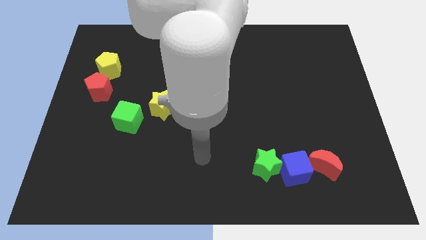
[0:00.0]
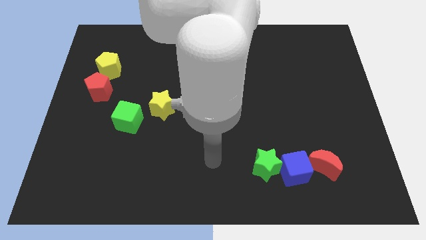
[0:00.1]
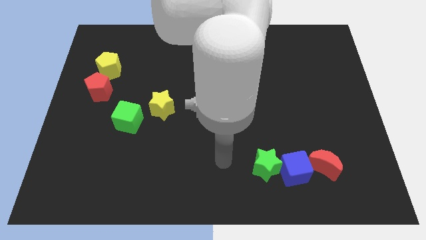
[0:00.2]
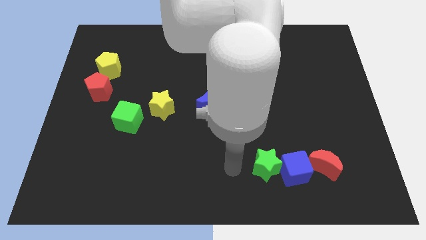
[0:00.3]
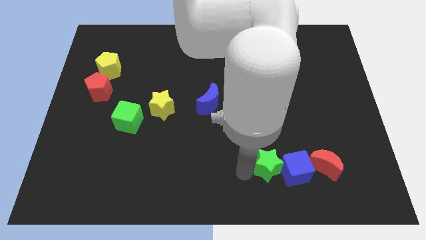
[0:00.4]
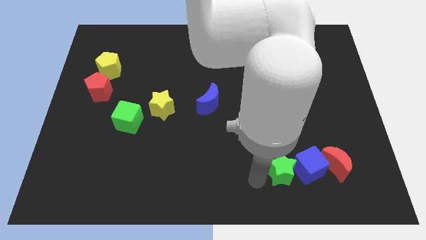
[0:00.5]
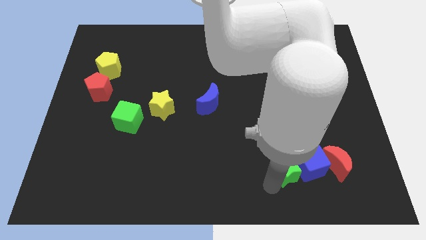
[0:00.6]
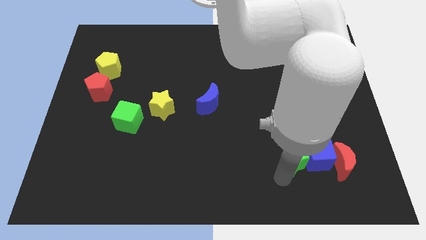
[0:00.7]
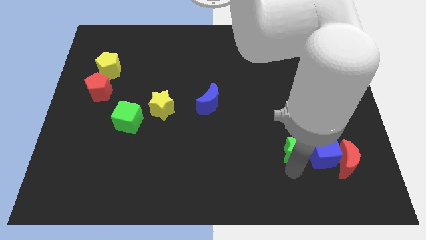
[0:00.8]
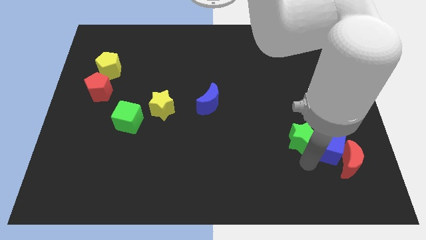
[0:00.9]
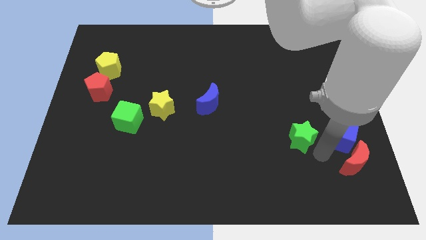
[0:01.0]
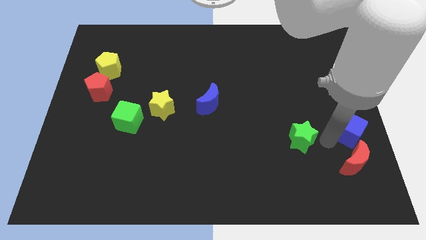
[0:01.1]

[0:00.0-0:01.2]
move the green star away from the blue cube

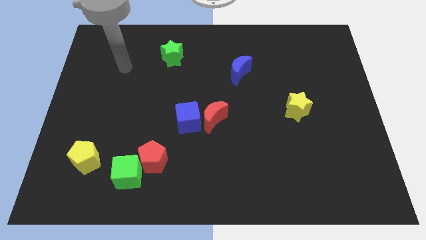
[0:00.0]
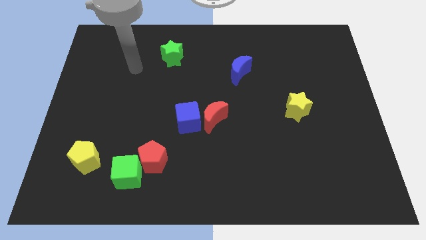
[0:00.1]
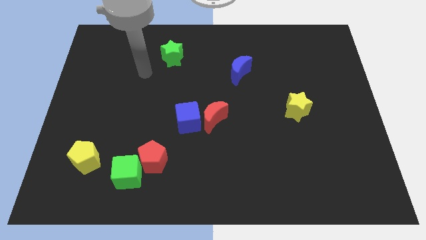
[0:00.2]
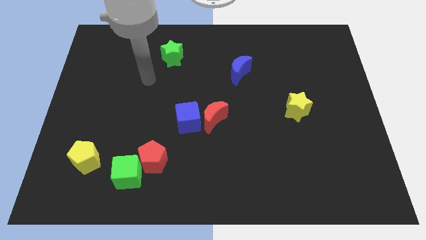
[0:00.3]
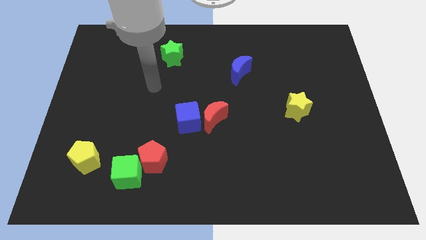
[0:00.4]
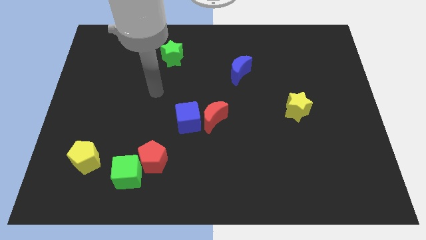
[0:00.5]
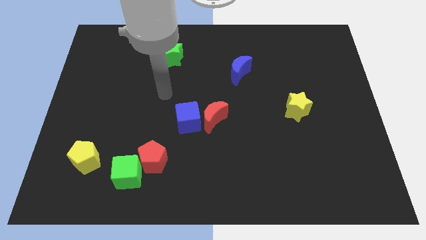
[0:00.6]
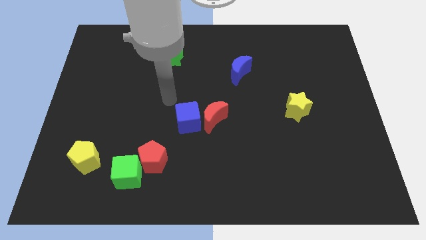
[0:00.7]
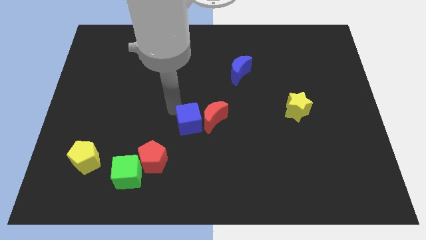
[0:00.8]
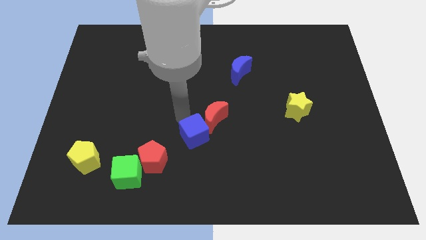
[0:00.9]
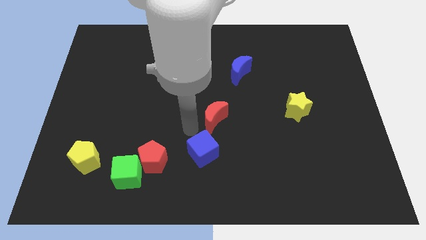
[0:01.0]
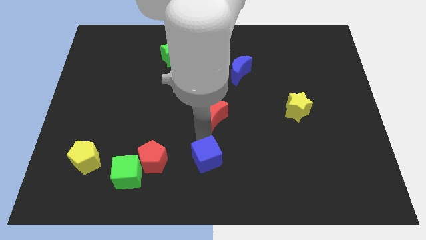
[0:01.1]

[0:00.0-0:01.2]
separate the red moon from the blue cube

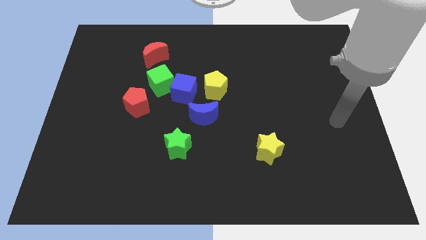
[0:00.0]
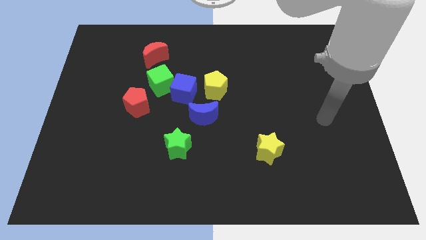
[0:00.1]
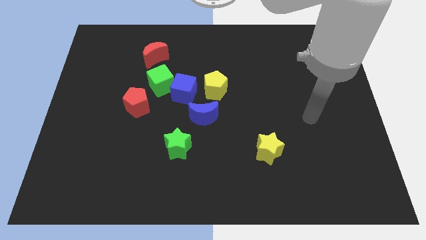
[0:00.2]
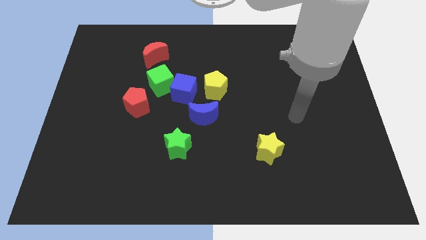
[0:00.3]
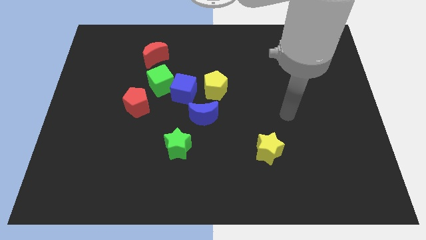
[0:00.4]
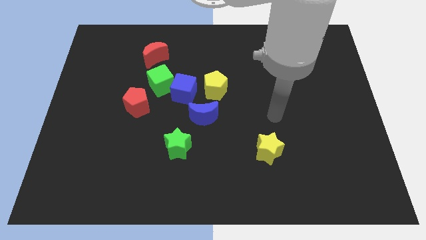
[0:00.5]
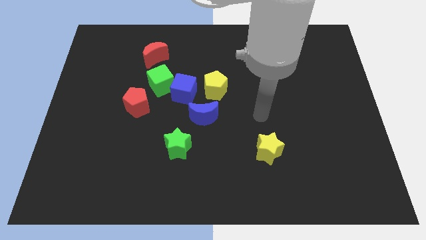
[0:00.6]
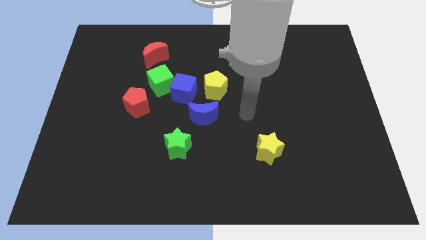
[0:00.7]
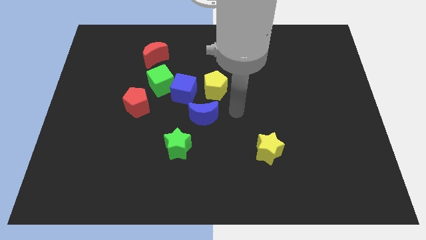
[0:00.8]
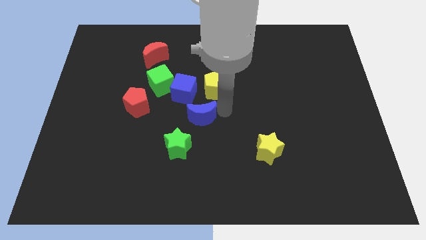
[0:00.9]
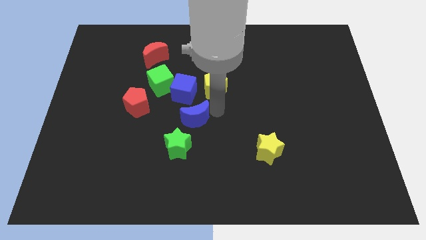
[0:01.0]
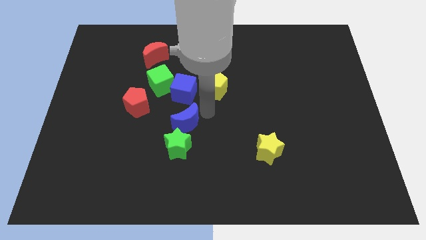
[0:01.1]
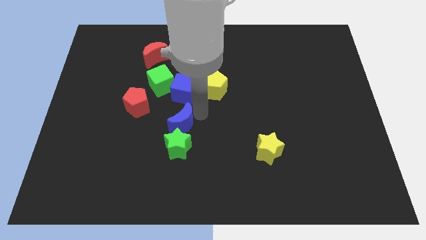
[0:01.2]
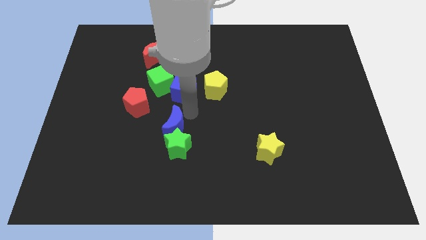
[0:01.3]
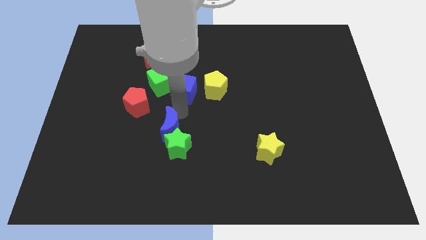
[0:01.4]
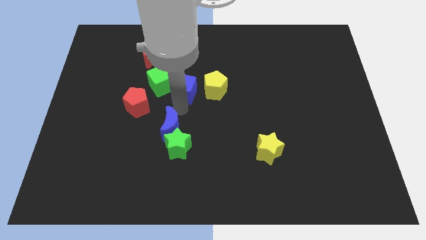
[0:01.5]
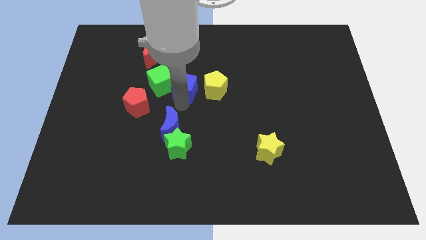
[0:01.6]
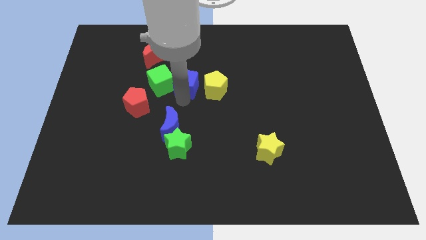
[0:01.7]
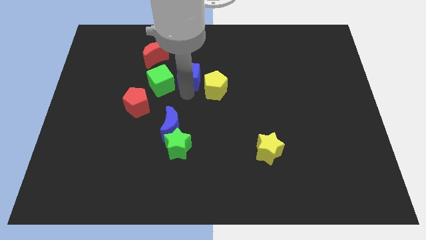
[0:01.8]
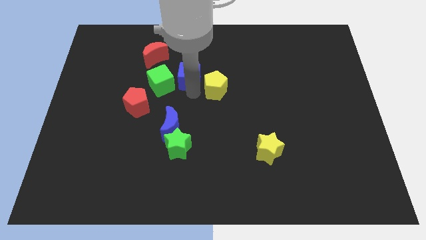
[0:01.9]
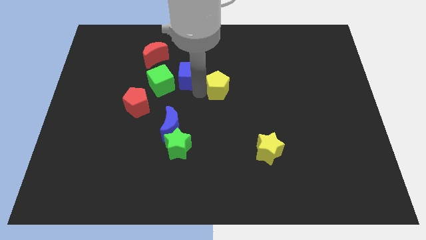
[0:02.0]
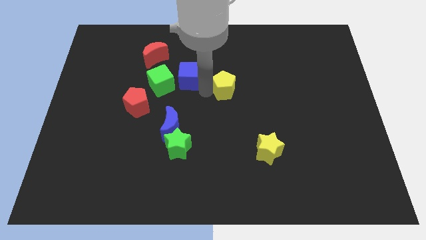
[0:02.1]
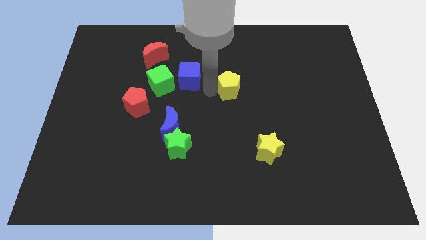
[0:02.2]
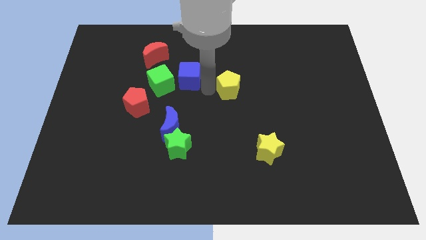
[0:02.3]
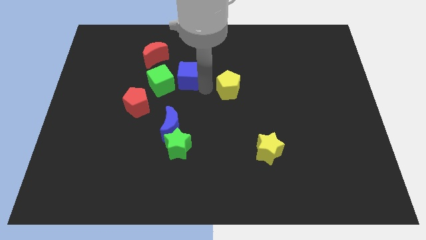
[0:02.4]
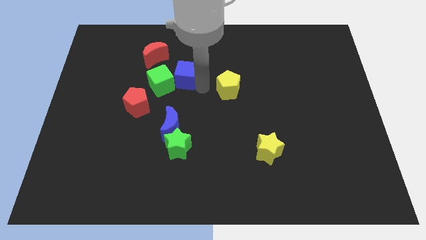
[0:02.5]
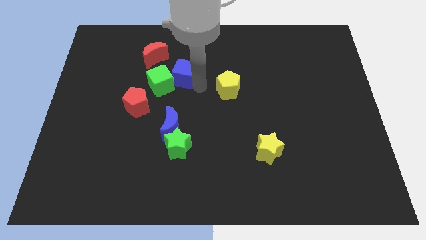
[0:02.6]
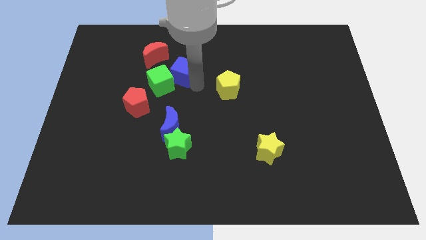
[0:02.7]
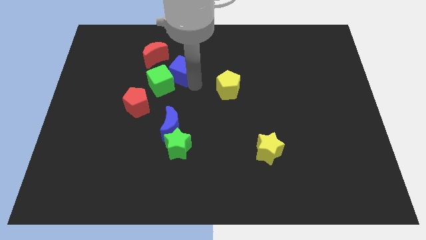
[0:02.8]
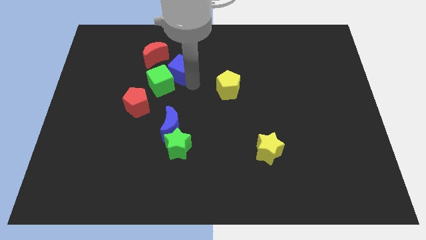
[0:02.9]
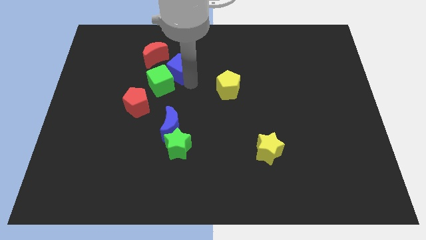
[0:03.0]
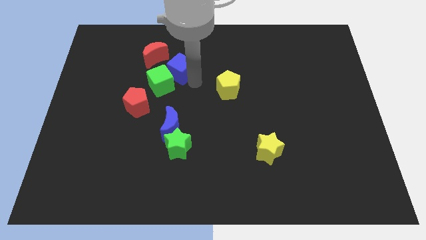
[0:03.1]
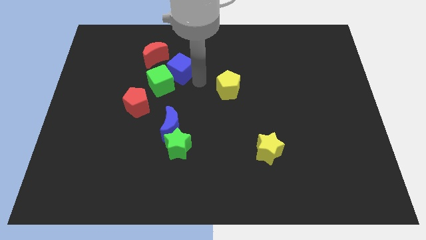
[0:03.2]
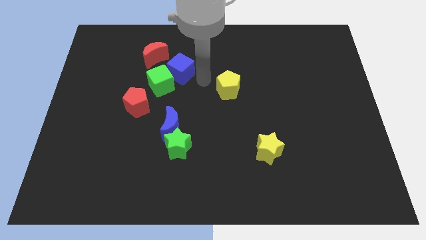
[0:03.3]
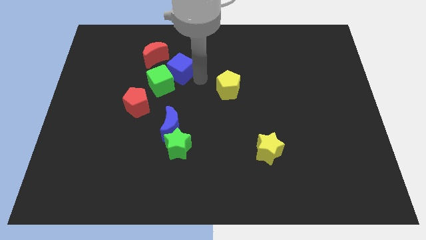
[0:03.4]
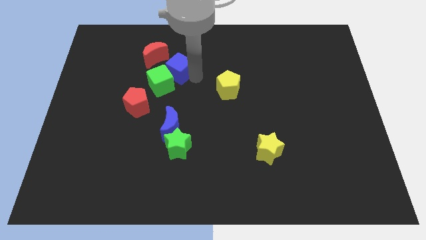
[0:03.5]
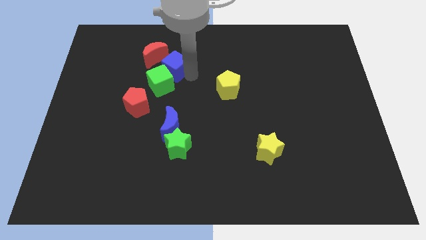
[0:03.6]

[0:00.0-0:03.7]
separate the blue cube from the group

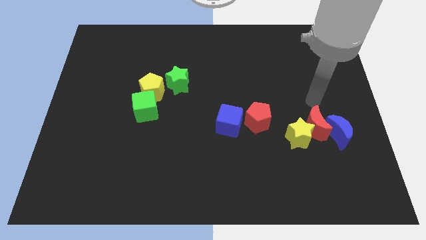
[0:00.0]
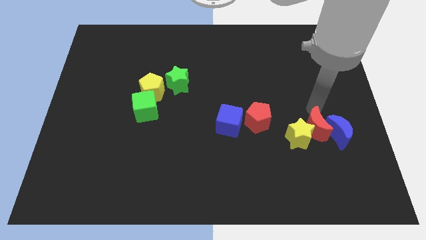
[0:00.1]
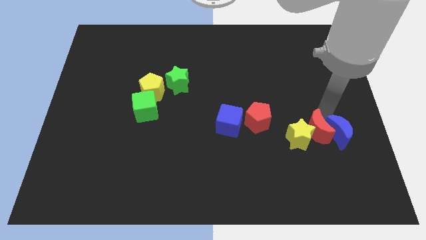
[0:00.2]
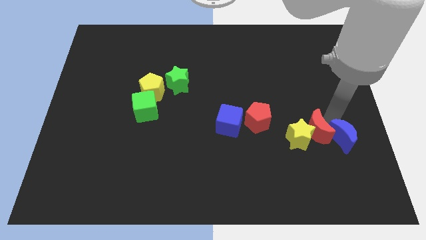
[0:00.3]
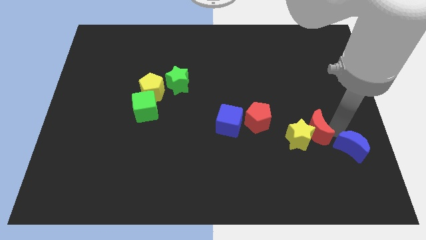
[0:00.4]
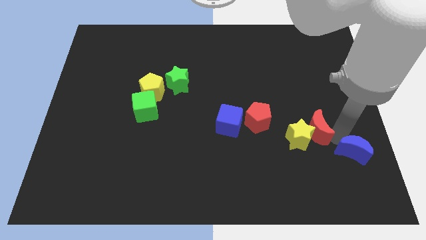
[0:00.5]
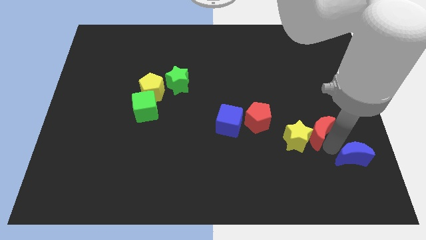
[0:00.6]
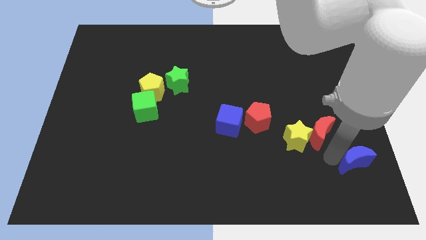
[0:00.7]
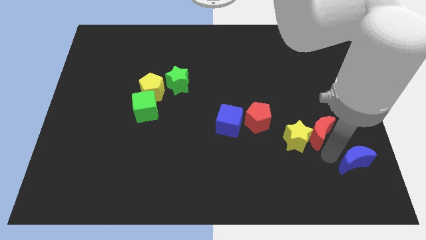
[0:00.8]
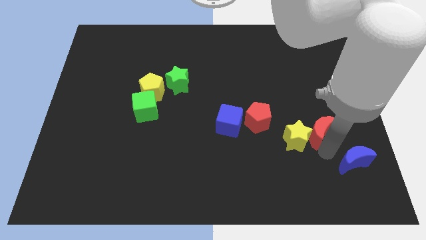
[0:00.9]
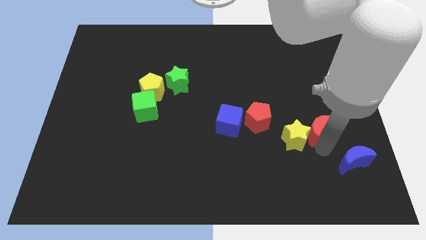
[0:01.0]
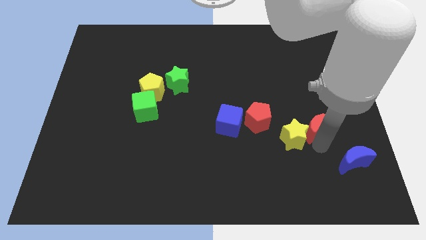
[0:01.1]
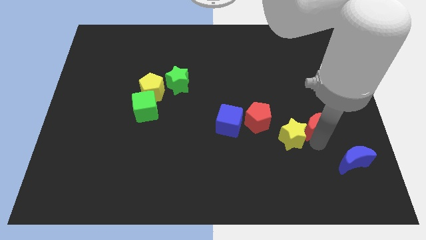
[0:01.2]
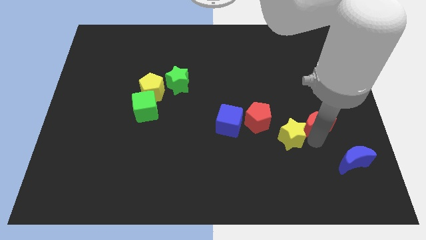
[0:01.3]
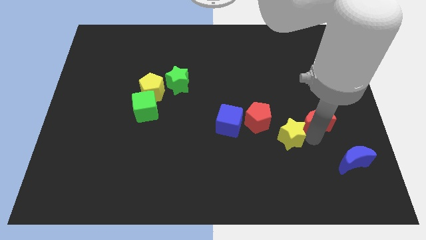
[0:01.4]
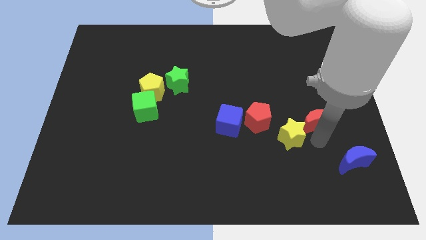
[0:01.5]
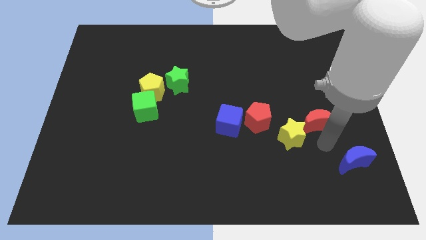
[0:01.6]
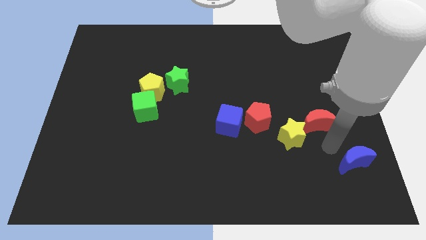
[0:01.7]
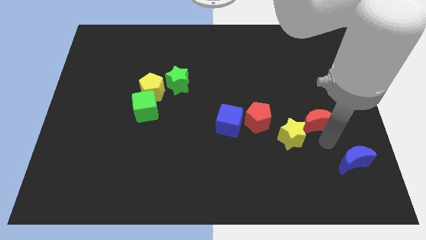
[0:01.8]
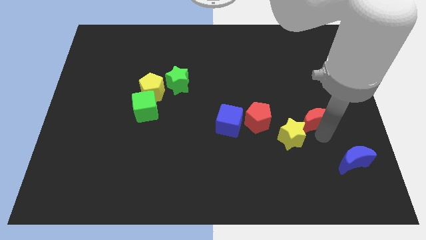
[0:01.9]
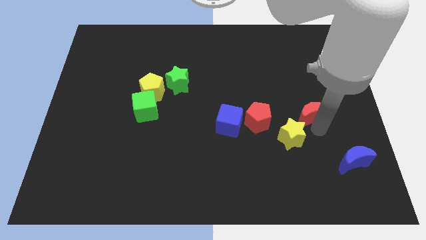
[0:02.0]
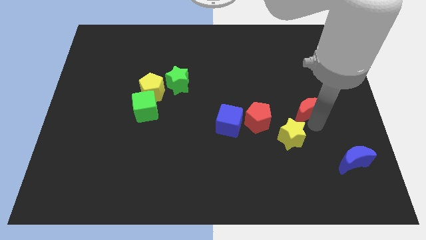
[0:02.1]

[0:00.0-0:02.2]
move the red moon away from the yellow star and blue moon

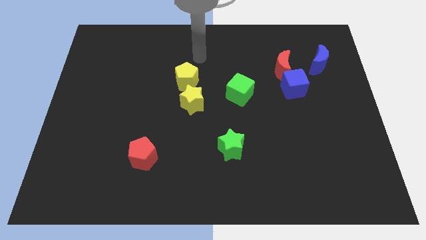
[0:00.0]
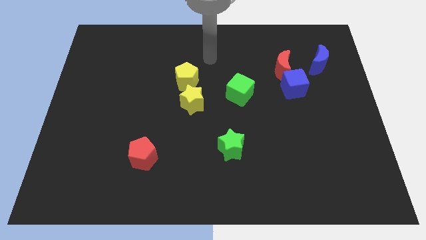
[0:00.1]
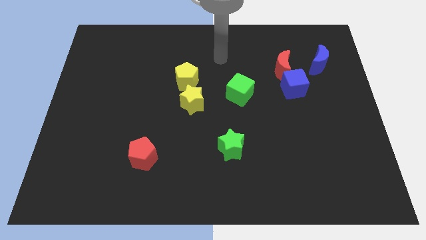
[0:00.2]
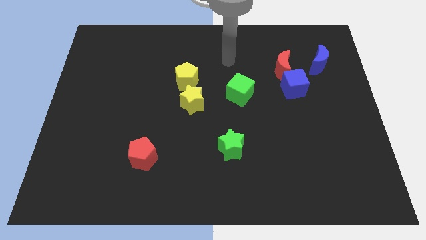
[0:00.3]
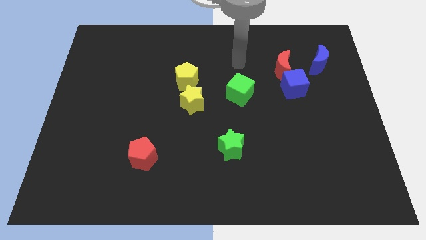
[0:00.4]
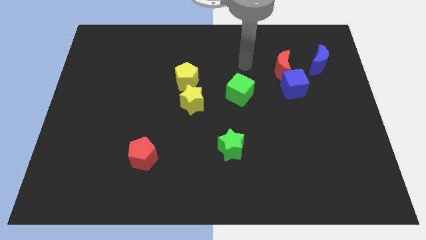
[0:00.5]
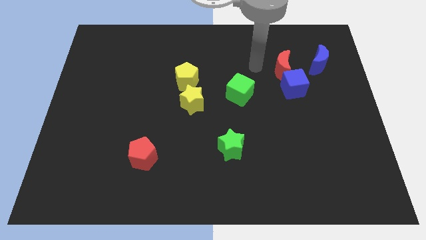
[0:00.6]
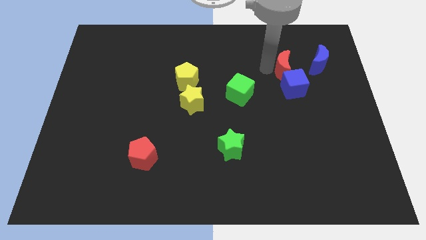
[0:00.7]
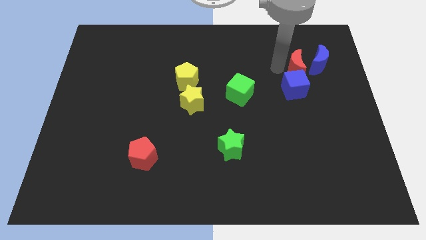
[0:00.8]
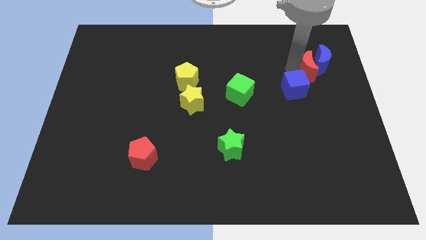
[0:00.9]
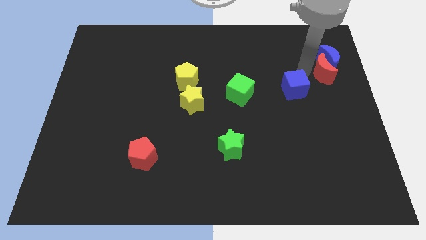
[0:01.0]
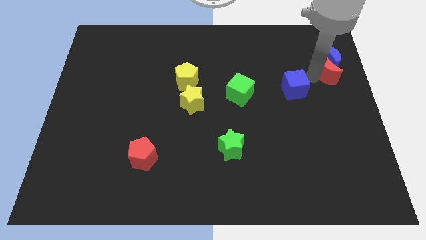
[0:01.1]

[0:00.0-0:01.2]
pull the blue cube apart from the red moon
